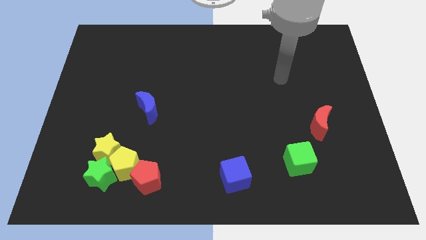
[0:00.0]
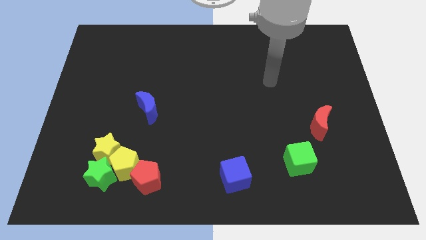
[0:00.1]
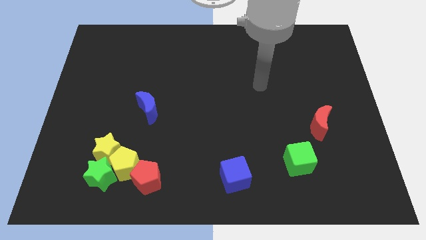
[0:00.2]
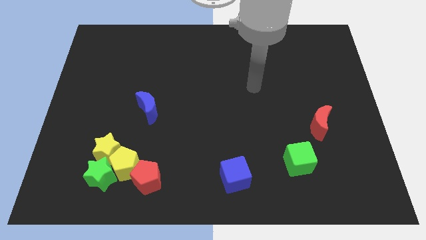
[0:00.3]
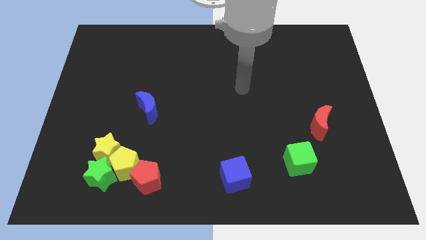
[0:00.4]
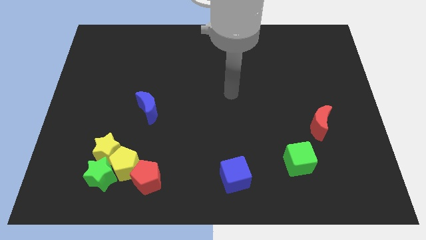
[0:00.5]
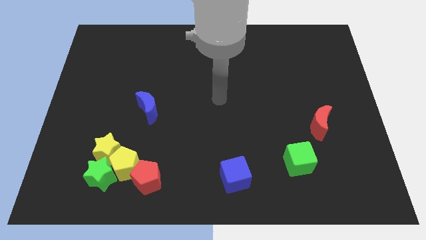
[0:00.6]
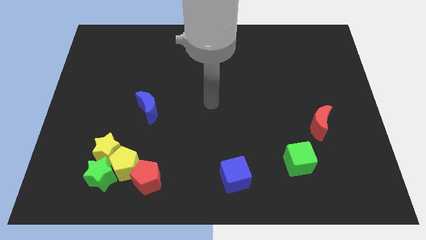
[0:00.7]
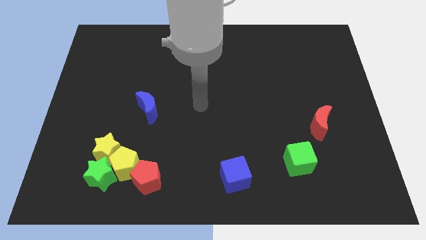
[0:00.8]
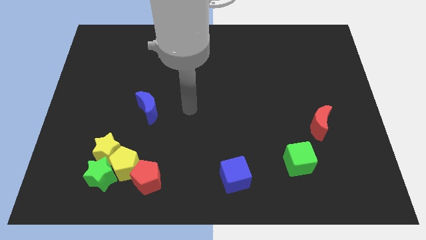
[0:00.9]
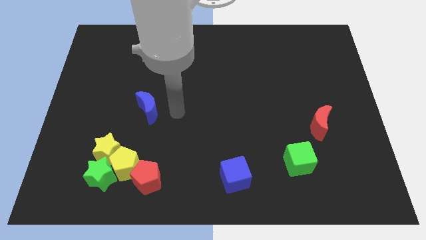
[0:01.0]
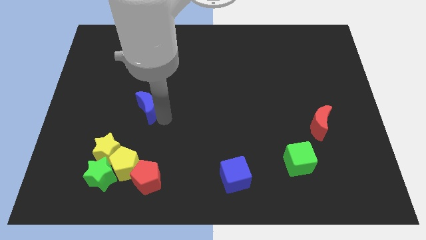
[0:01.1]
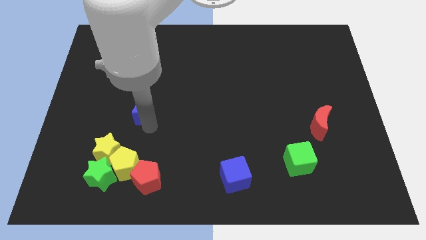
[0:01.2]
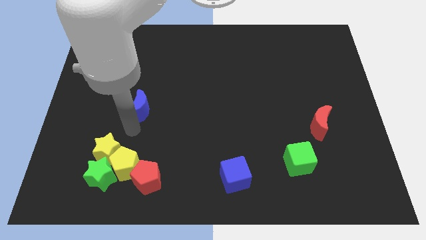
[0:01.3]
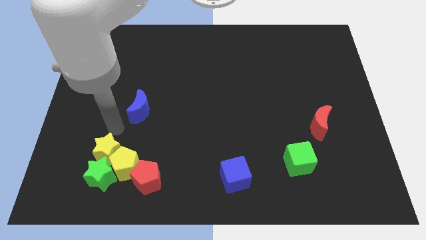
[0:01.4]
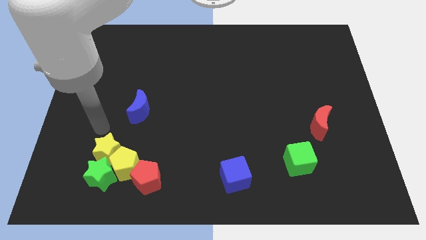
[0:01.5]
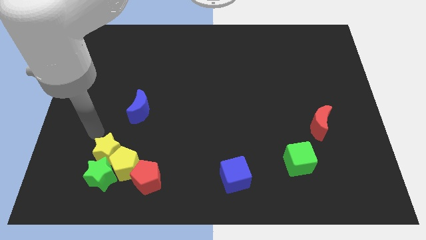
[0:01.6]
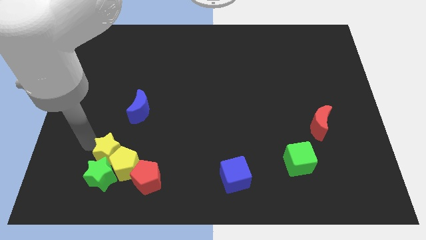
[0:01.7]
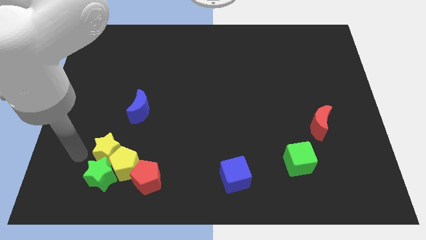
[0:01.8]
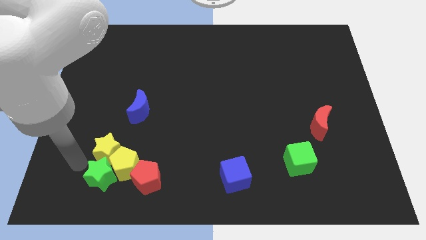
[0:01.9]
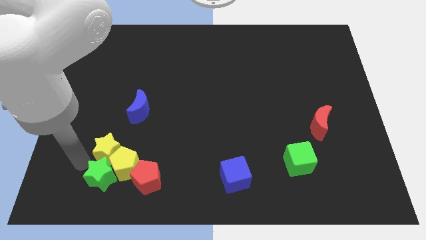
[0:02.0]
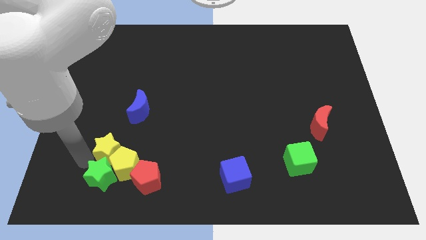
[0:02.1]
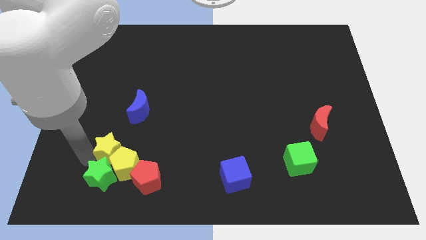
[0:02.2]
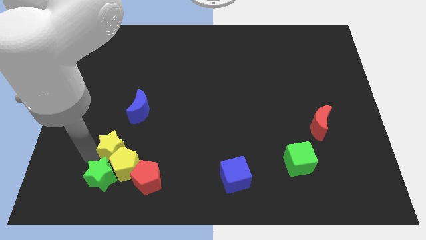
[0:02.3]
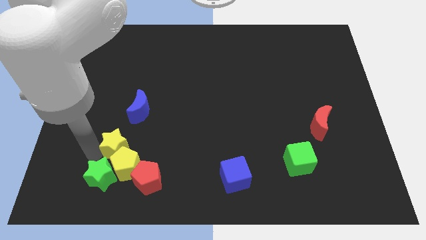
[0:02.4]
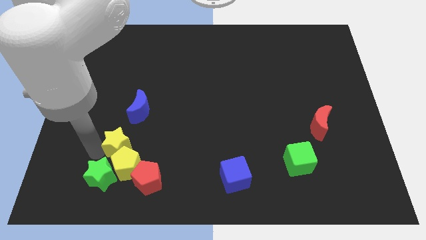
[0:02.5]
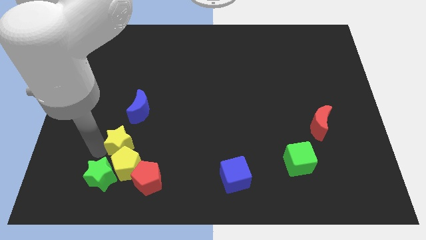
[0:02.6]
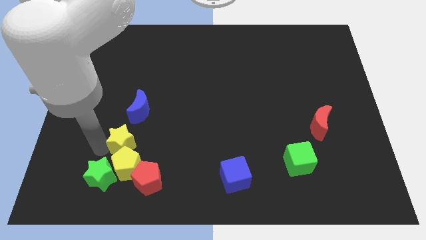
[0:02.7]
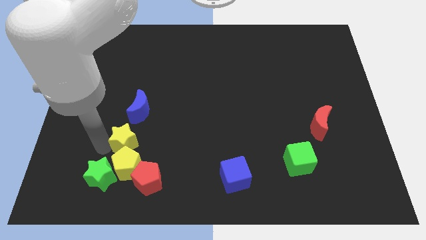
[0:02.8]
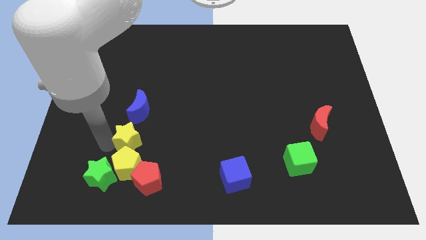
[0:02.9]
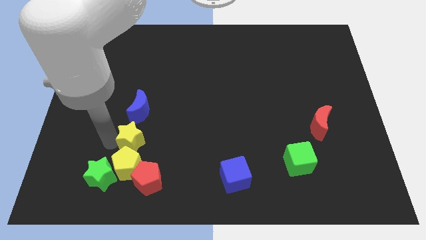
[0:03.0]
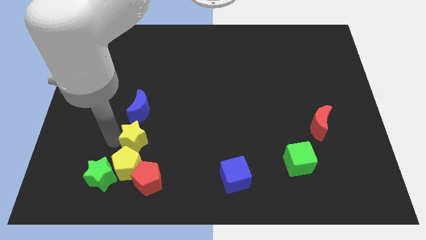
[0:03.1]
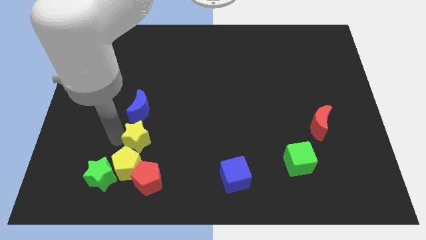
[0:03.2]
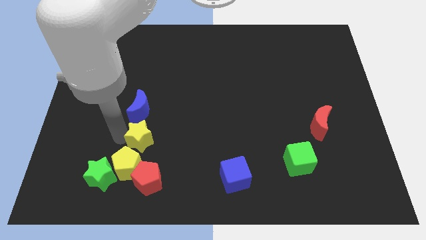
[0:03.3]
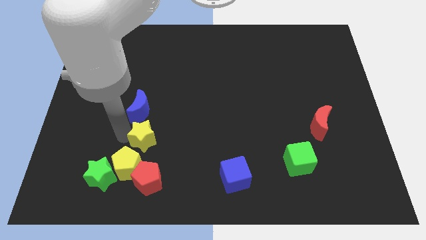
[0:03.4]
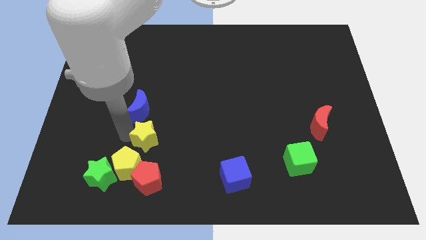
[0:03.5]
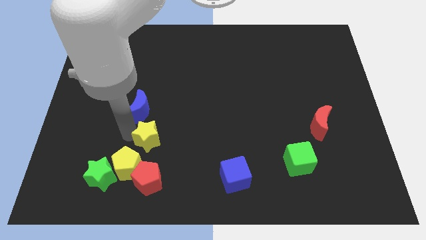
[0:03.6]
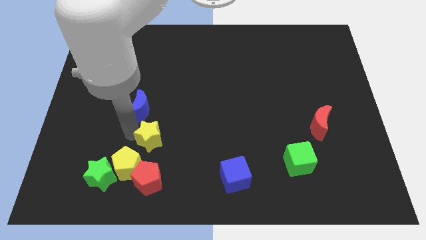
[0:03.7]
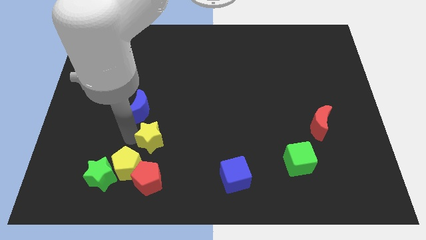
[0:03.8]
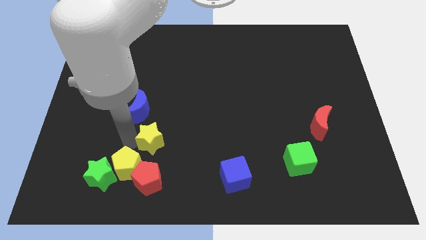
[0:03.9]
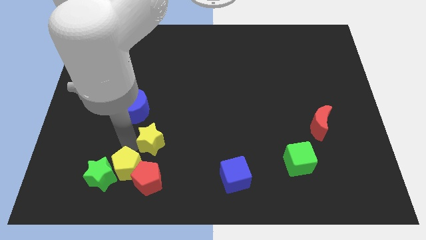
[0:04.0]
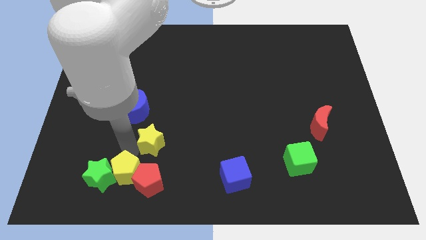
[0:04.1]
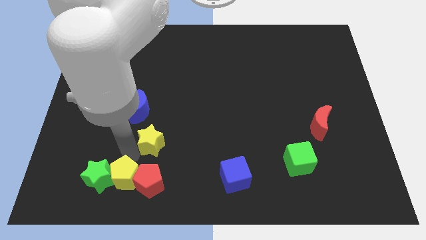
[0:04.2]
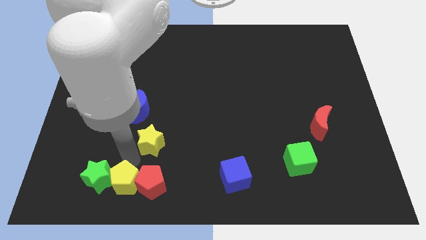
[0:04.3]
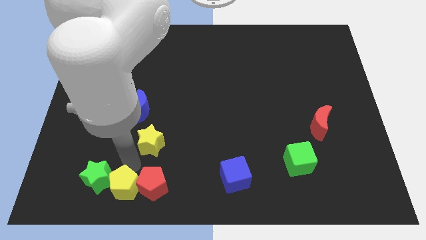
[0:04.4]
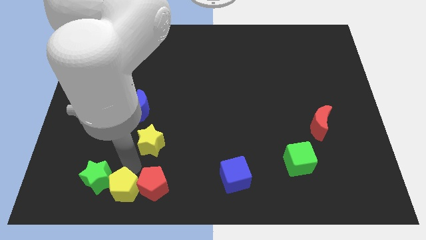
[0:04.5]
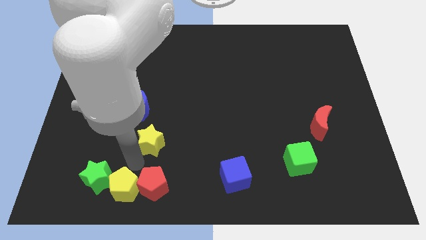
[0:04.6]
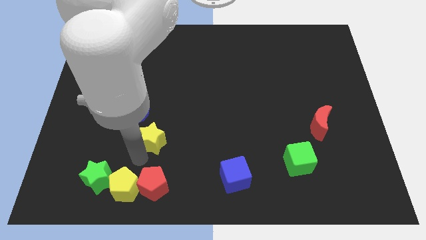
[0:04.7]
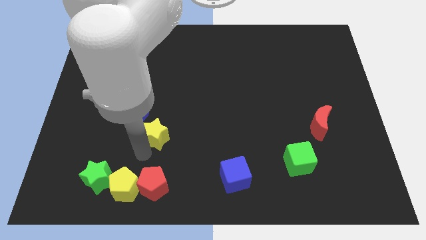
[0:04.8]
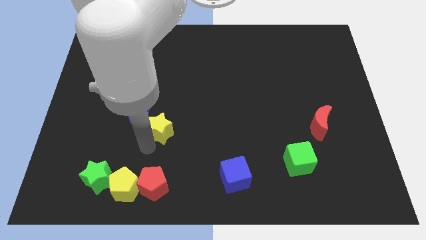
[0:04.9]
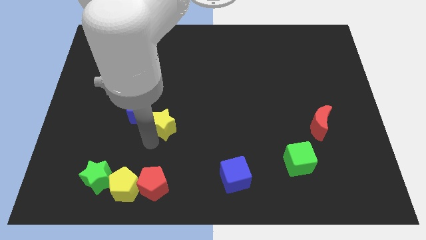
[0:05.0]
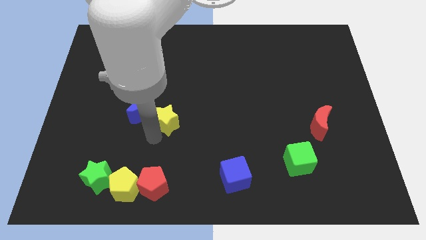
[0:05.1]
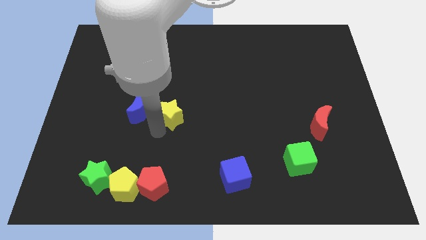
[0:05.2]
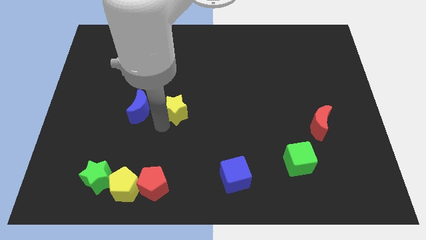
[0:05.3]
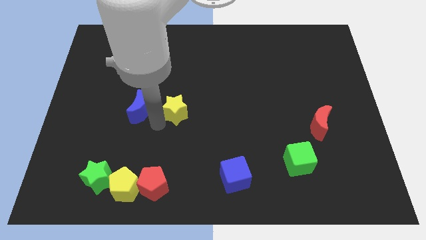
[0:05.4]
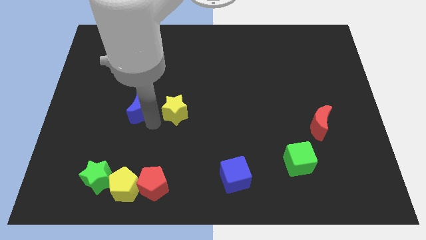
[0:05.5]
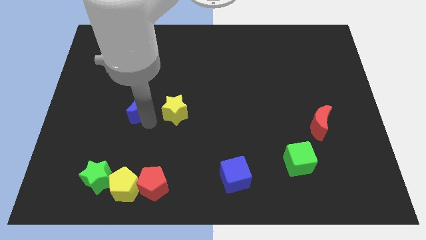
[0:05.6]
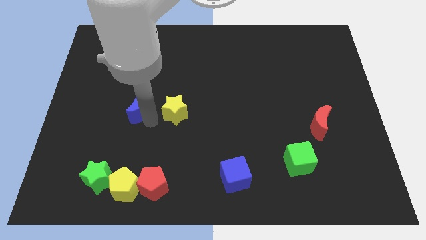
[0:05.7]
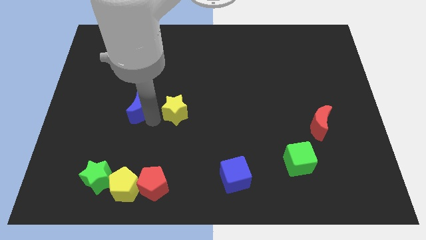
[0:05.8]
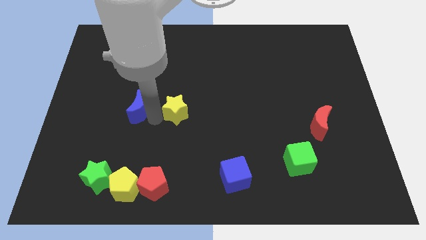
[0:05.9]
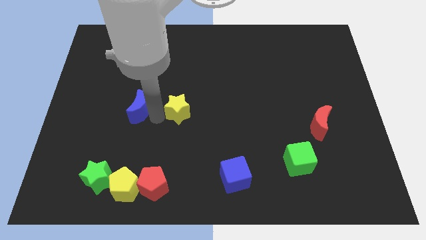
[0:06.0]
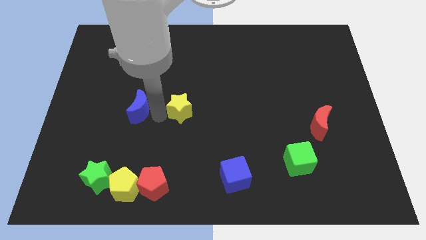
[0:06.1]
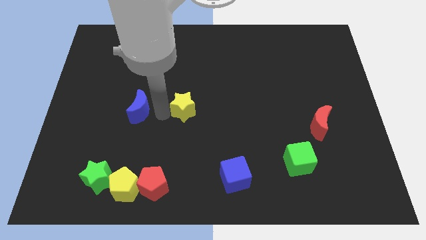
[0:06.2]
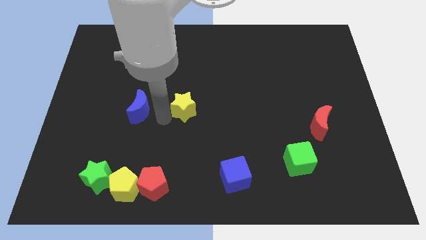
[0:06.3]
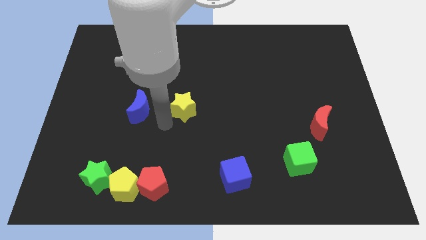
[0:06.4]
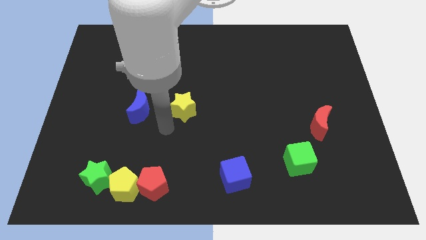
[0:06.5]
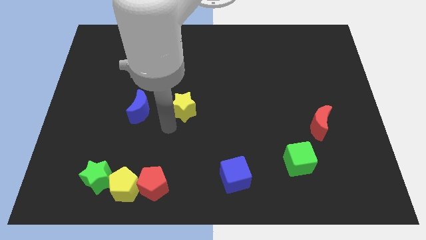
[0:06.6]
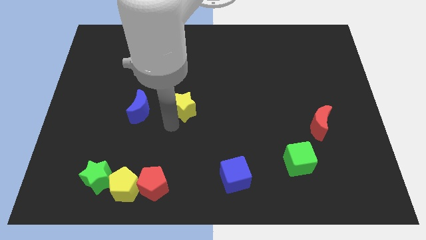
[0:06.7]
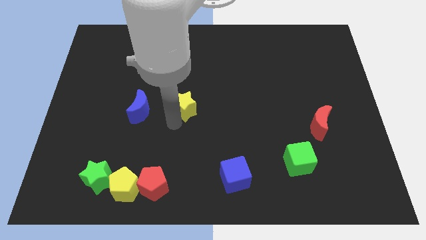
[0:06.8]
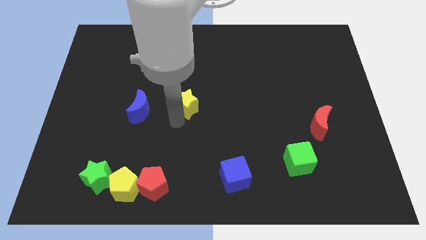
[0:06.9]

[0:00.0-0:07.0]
move the yellow star up and right

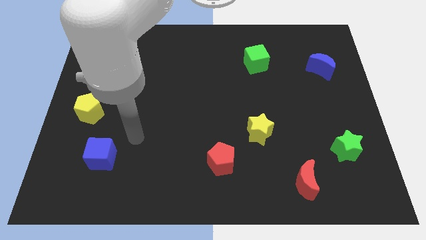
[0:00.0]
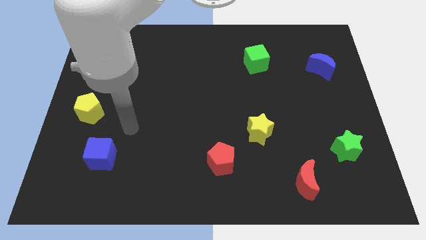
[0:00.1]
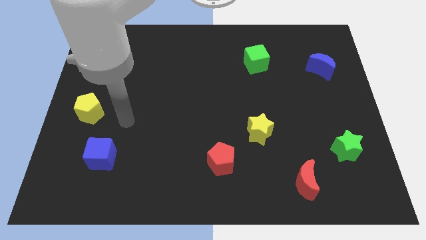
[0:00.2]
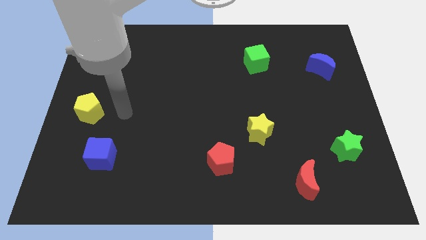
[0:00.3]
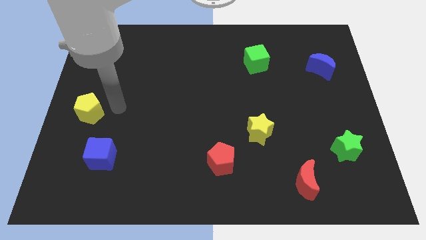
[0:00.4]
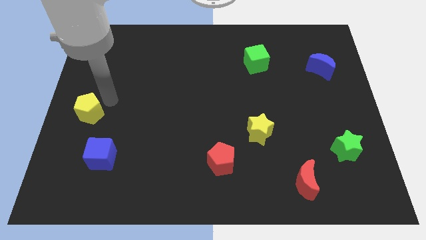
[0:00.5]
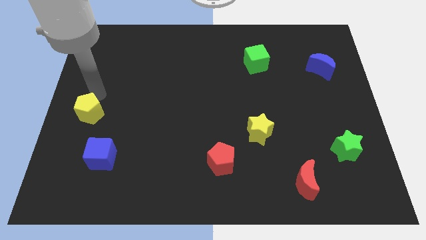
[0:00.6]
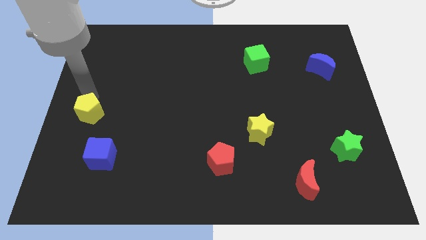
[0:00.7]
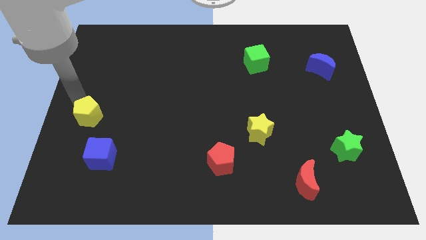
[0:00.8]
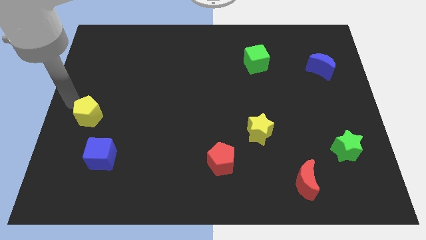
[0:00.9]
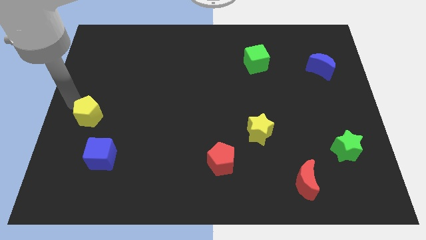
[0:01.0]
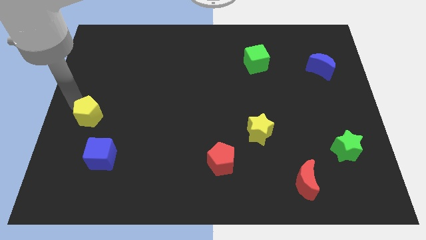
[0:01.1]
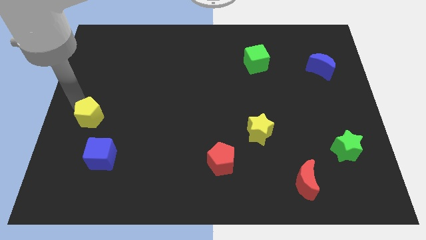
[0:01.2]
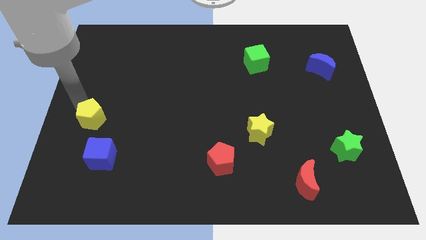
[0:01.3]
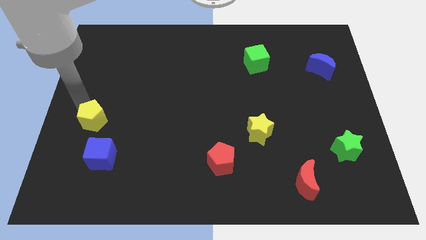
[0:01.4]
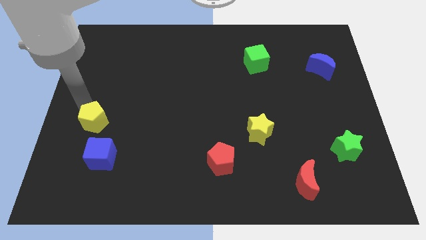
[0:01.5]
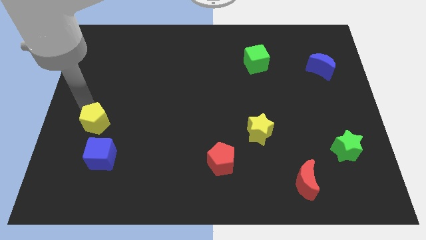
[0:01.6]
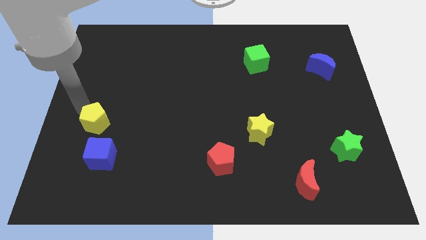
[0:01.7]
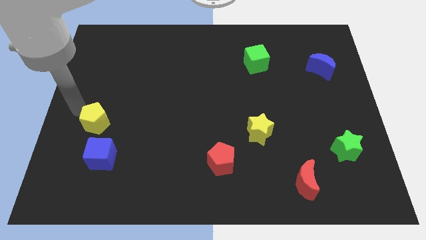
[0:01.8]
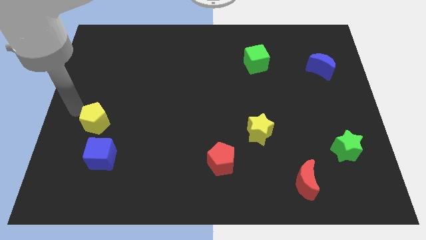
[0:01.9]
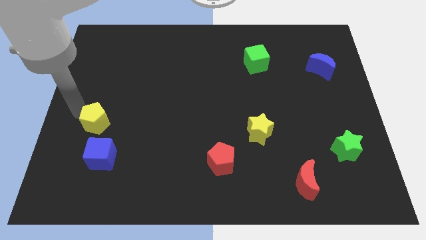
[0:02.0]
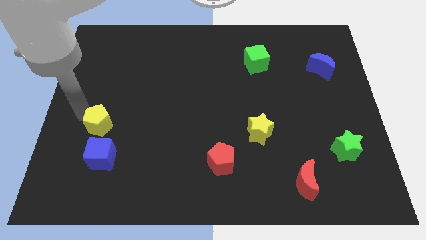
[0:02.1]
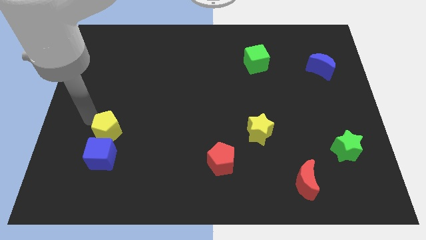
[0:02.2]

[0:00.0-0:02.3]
push the yellow pentagon a little bit down and then right
